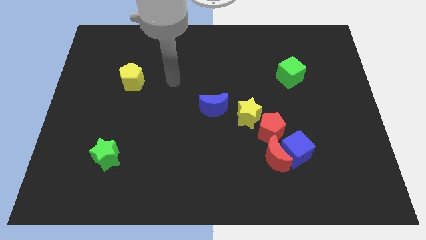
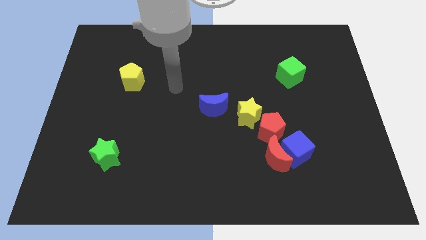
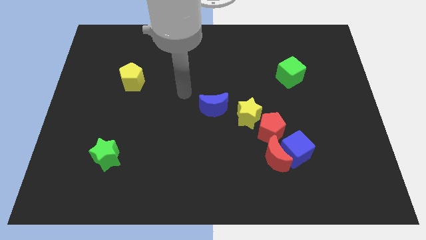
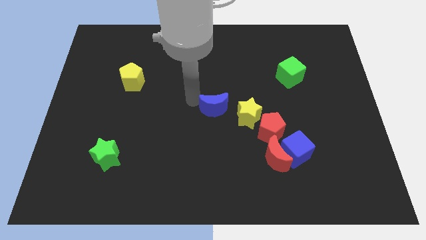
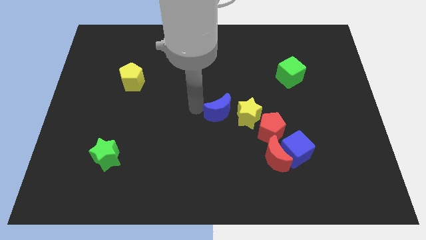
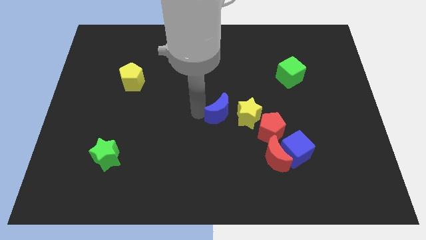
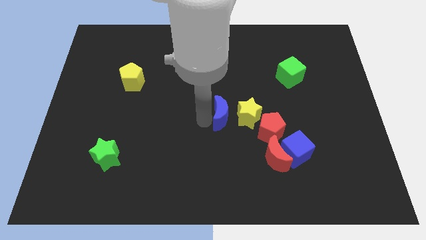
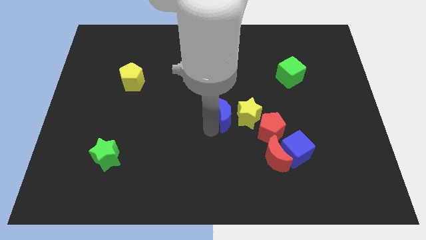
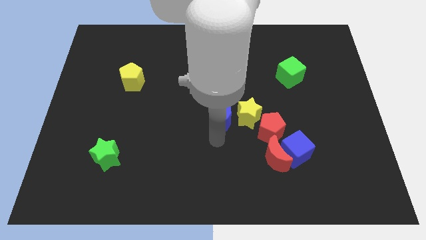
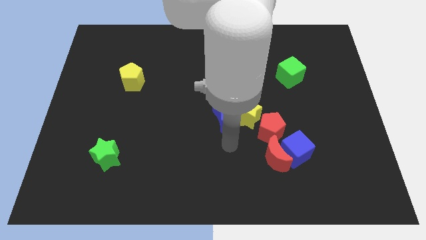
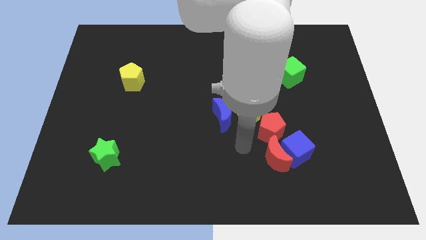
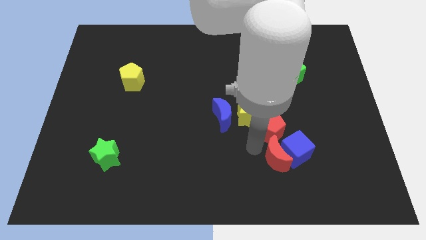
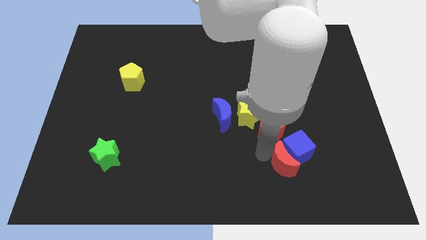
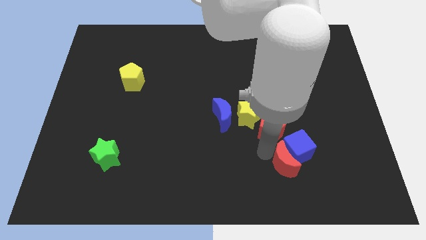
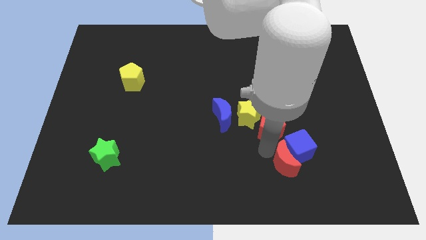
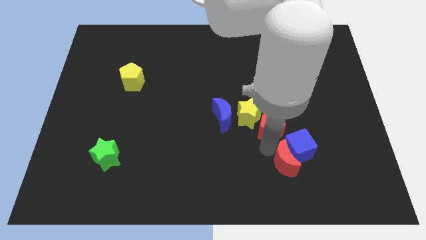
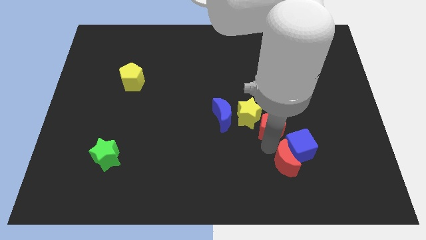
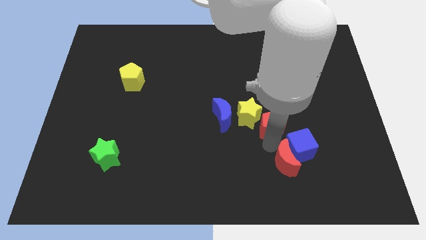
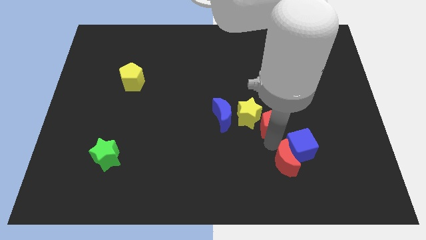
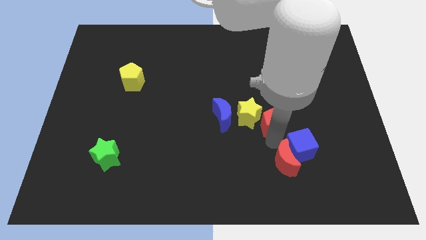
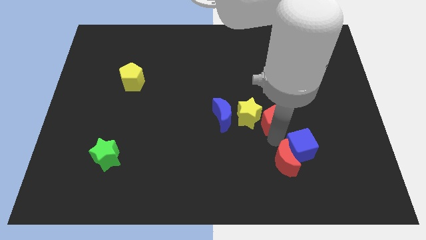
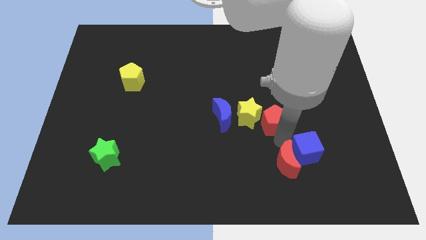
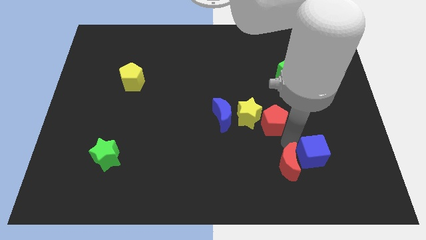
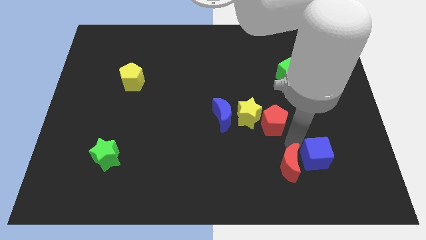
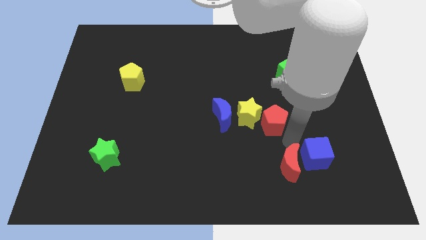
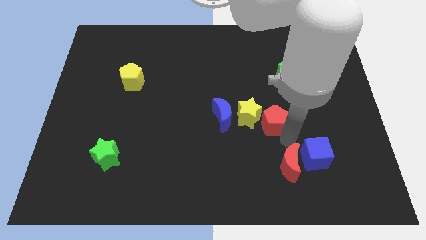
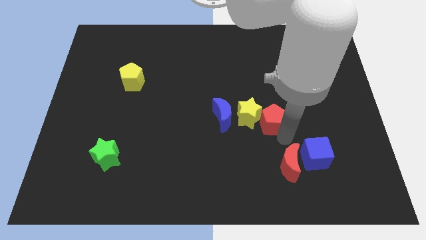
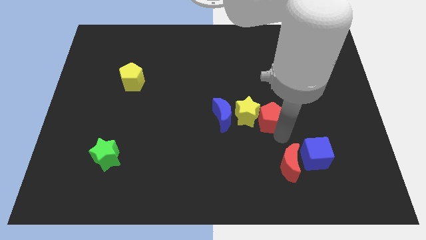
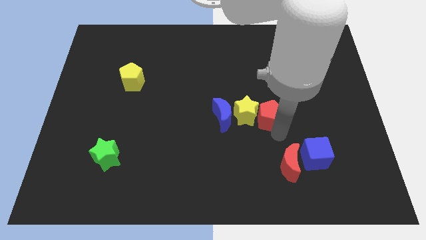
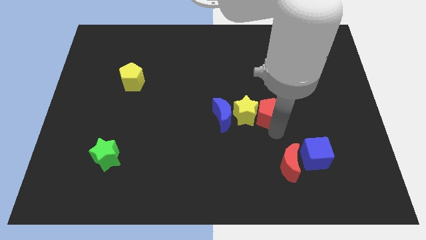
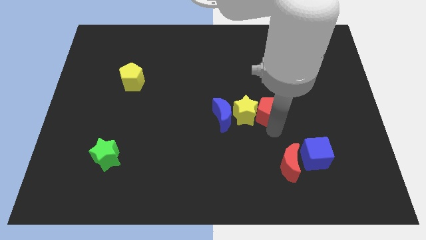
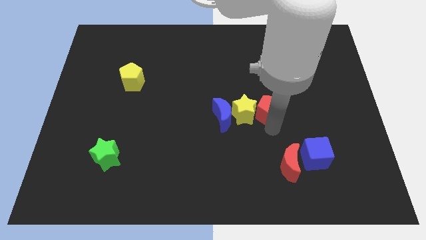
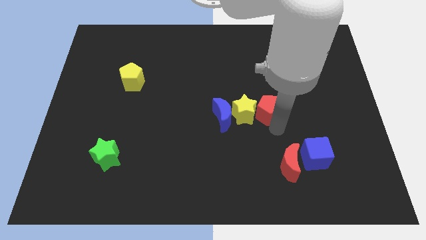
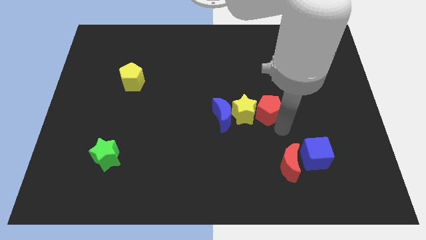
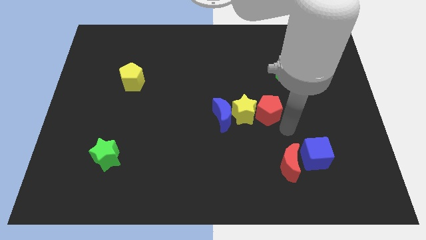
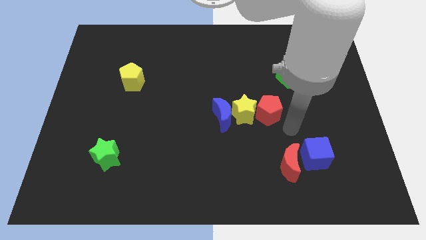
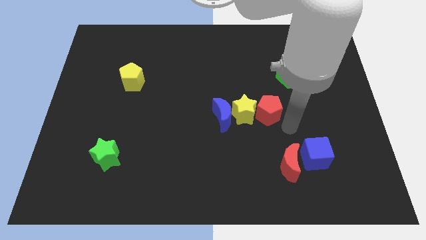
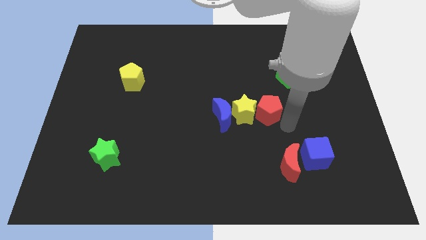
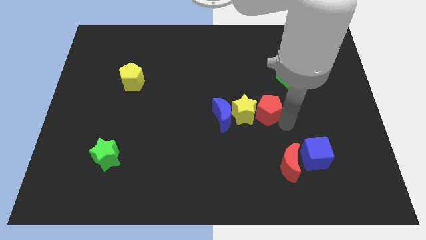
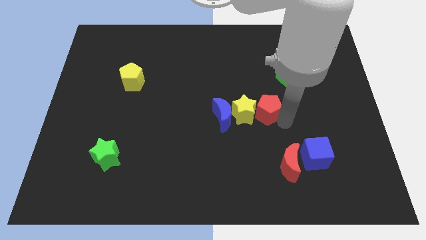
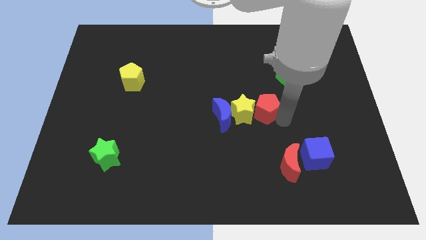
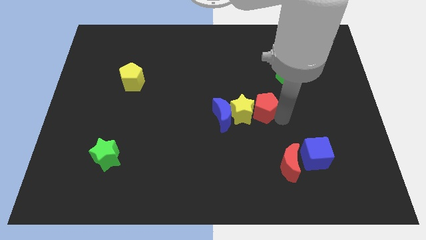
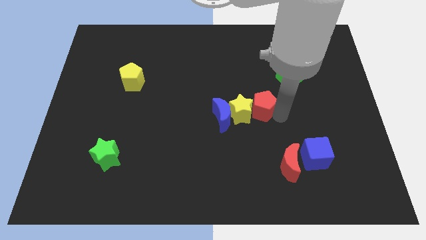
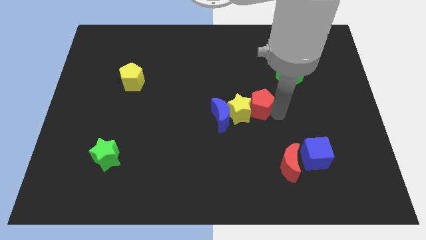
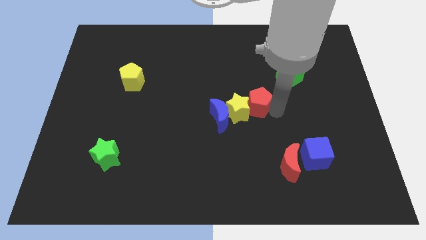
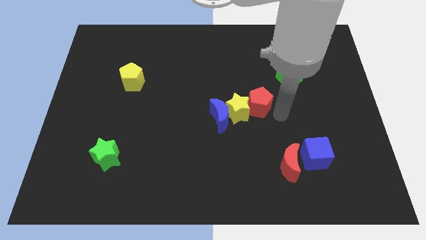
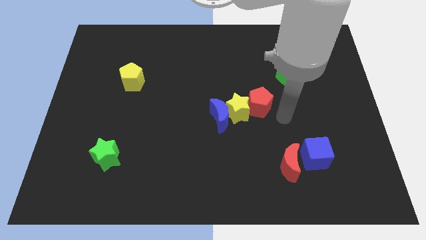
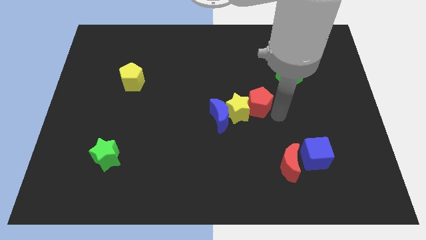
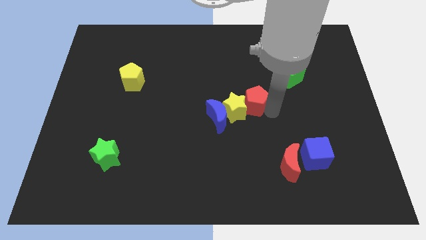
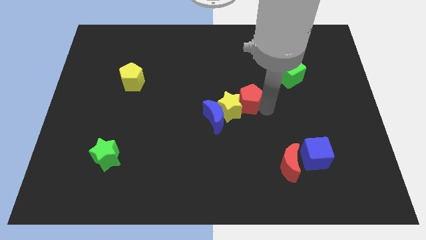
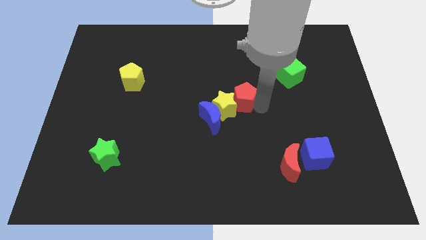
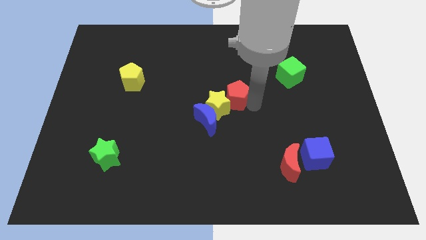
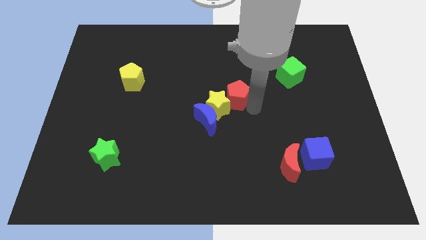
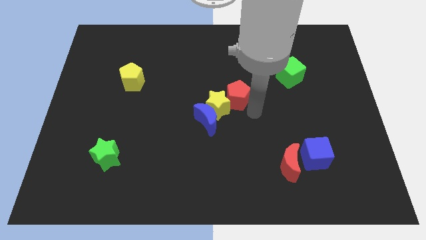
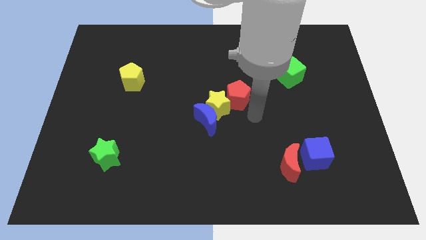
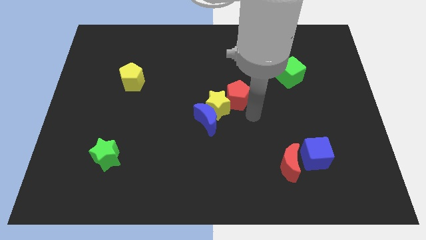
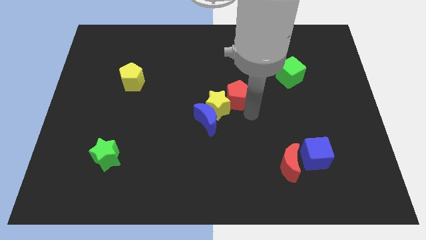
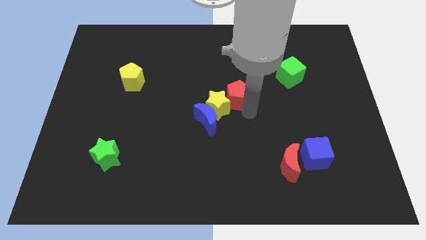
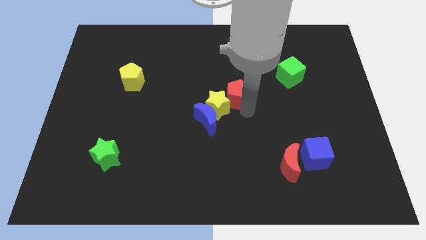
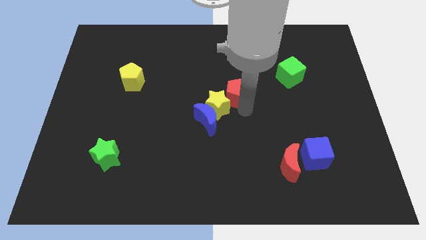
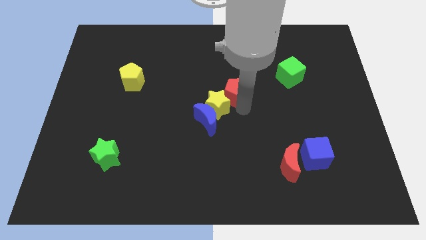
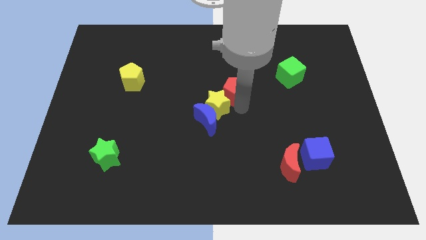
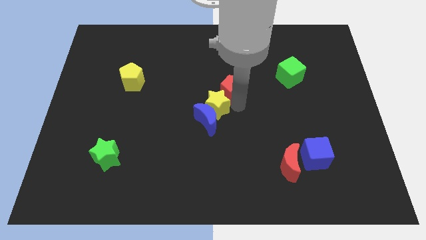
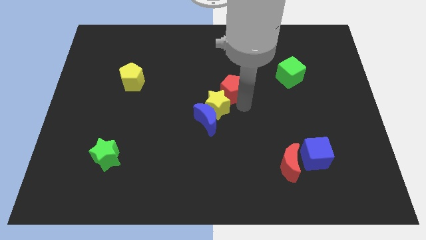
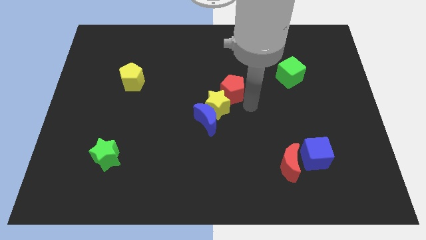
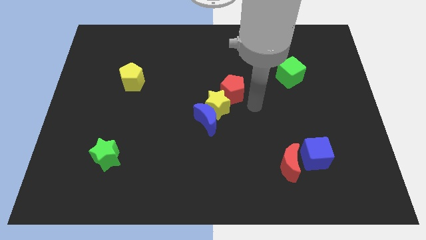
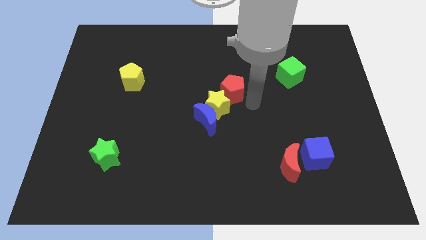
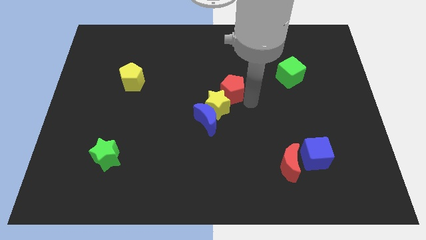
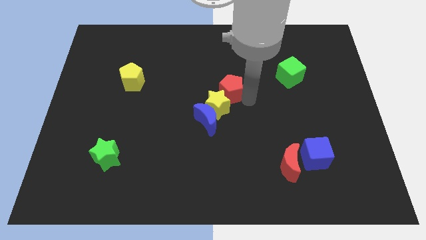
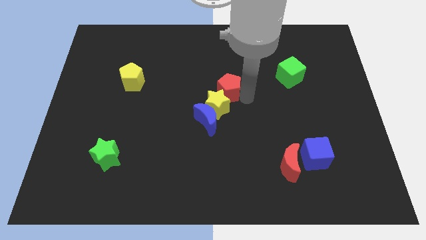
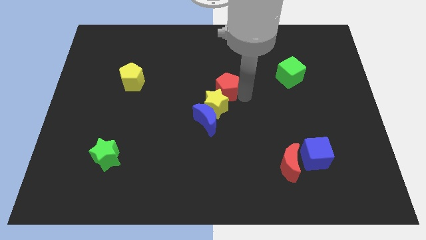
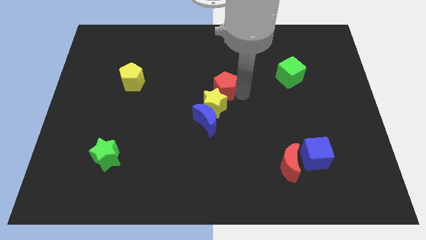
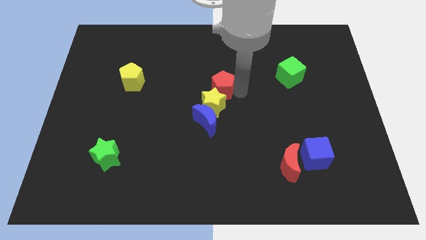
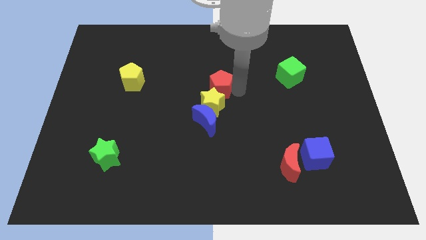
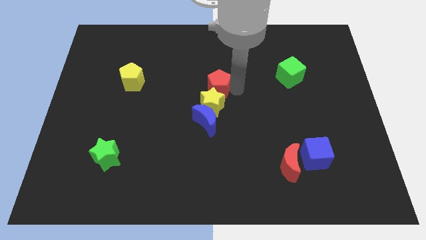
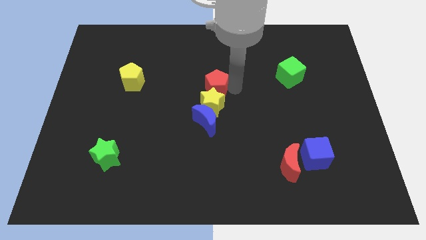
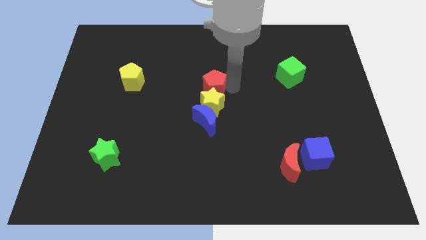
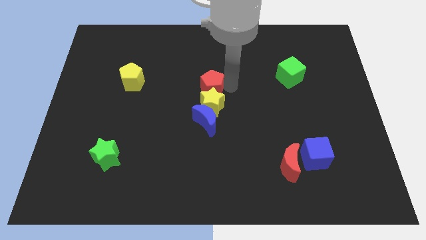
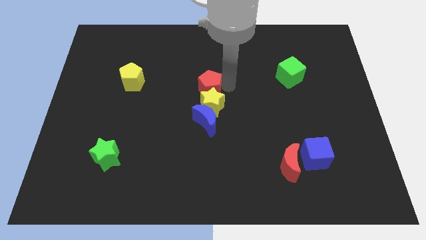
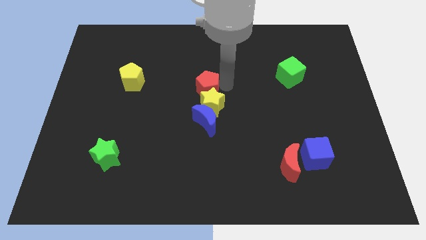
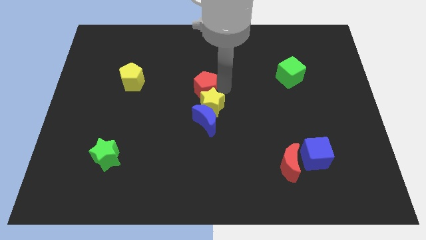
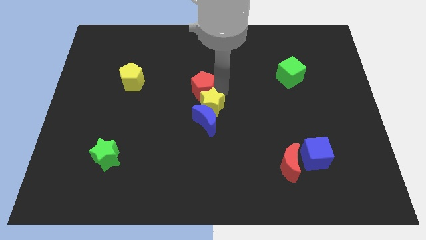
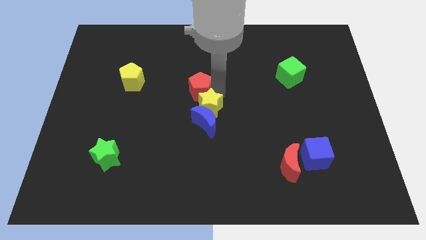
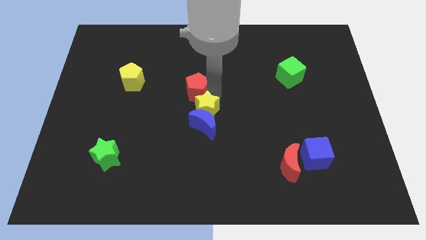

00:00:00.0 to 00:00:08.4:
move the red pentagon diagonally up and left
